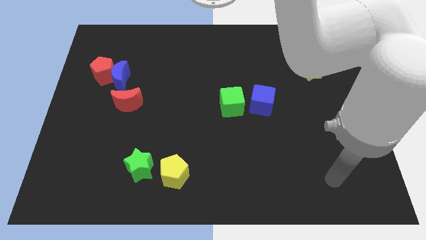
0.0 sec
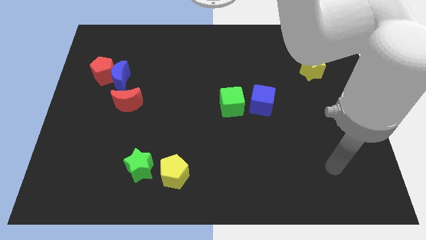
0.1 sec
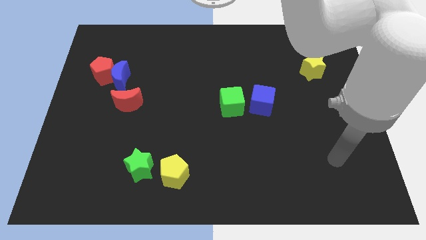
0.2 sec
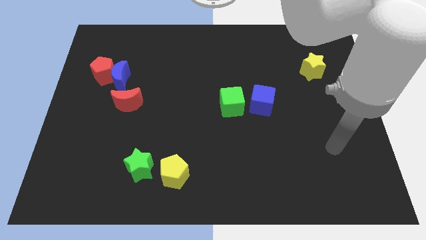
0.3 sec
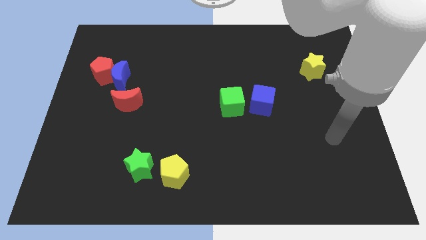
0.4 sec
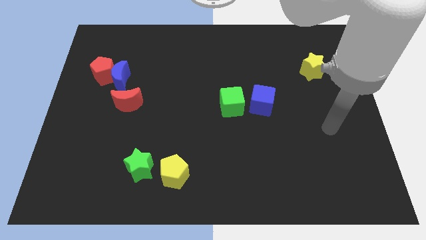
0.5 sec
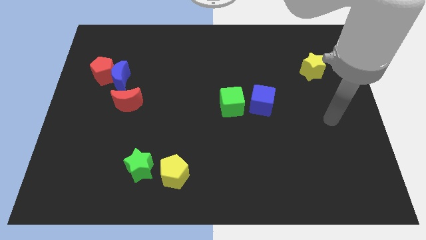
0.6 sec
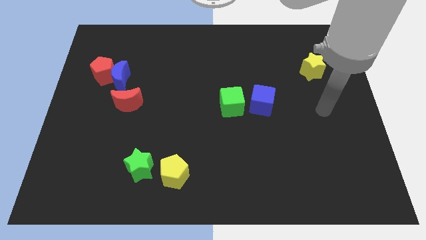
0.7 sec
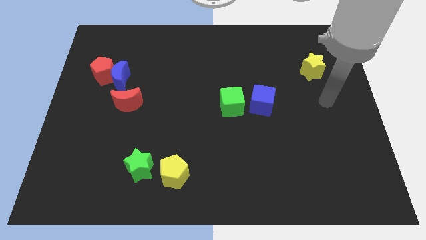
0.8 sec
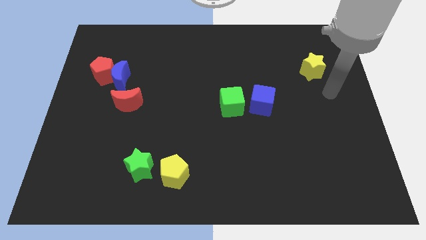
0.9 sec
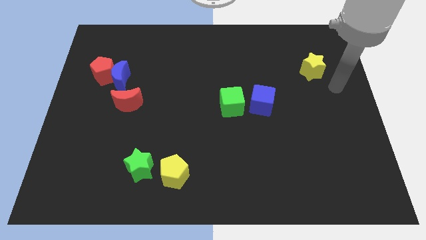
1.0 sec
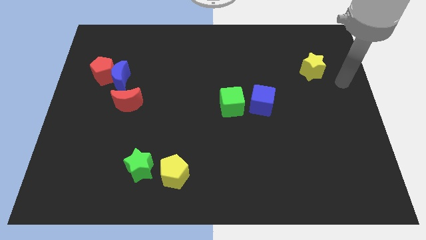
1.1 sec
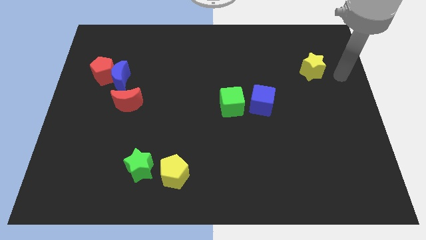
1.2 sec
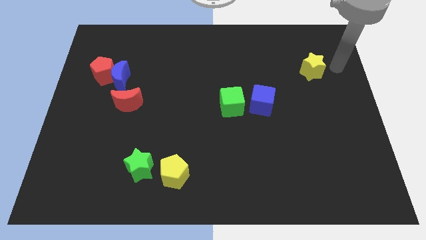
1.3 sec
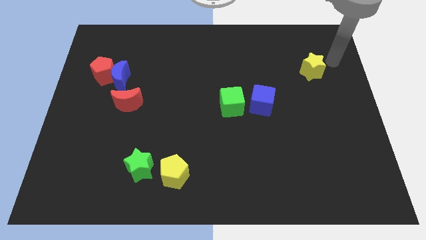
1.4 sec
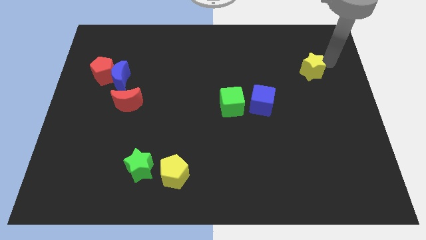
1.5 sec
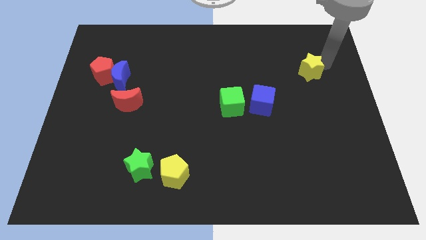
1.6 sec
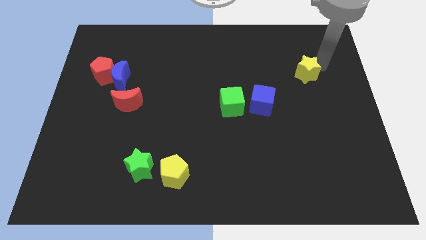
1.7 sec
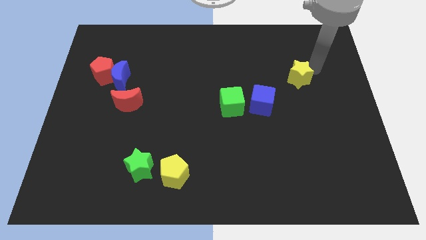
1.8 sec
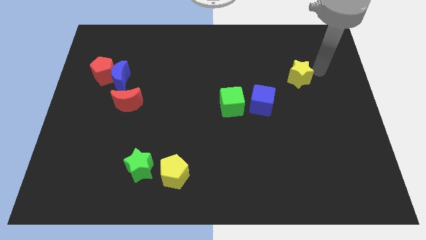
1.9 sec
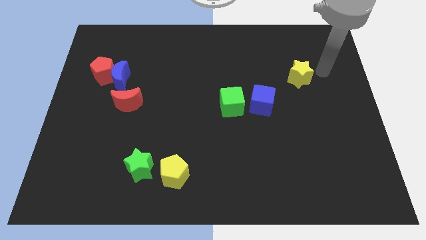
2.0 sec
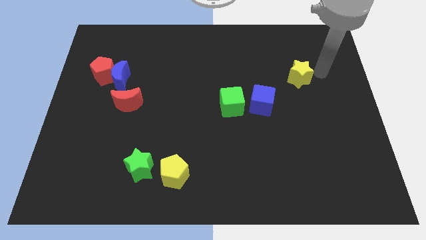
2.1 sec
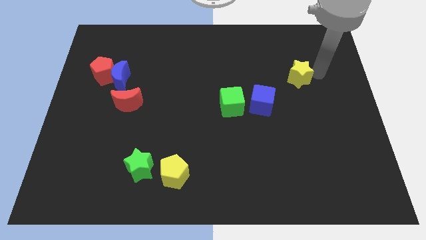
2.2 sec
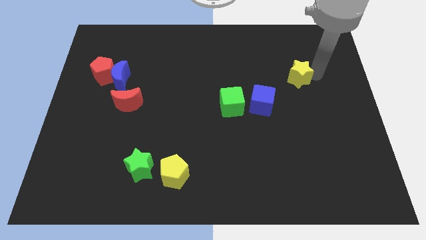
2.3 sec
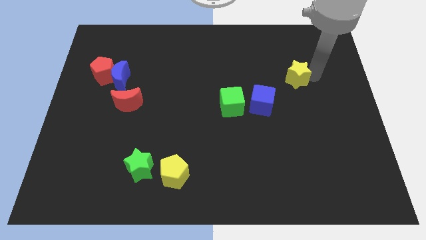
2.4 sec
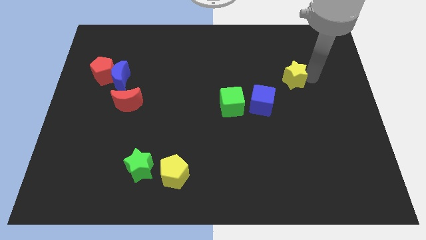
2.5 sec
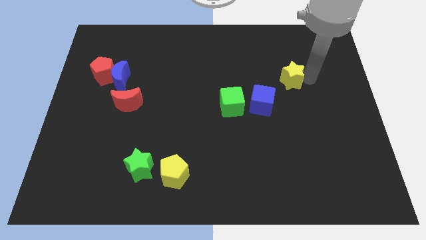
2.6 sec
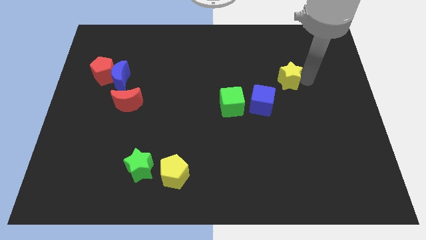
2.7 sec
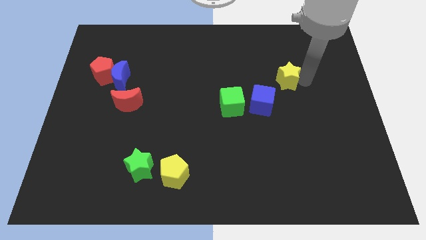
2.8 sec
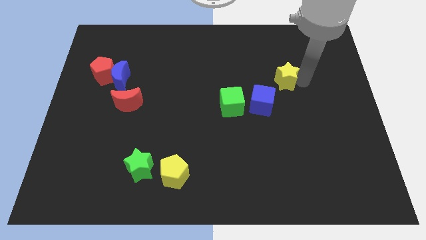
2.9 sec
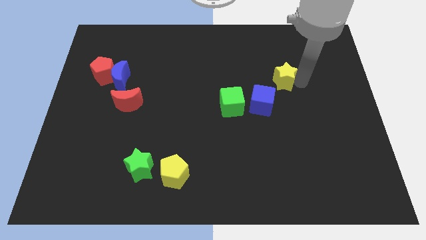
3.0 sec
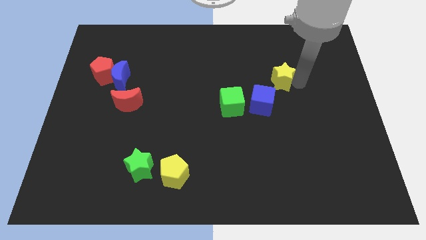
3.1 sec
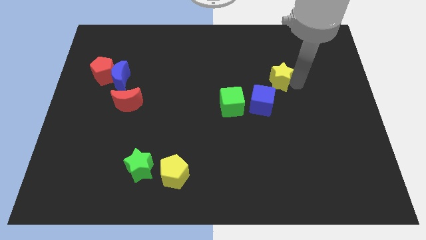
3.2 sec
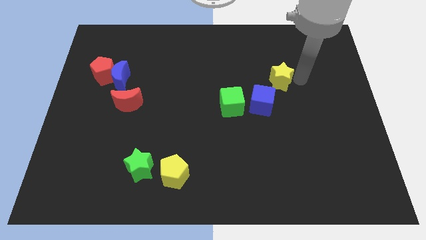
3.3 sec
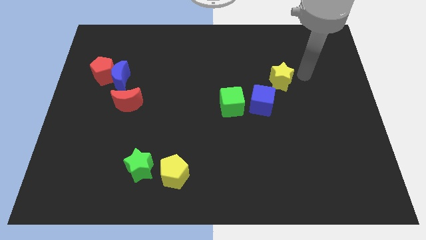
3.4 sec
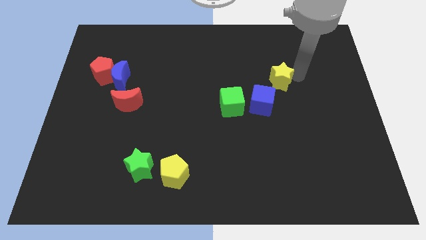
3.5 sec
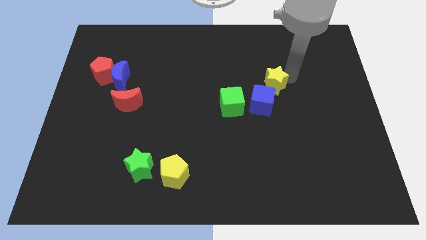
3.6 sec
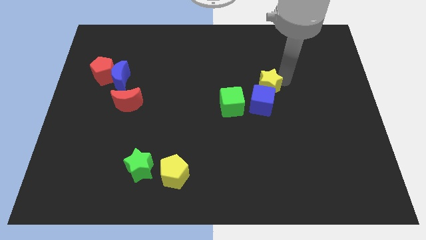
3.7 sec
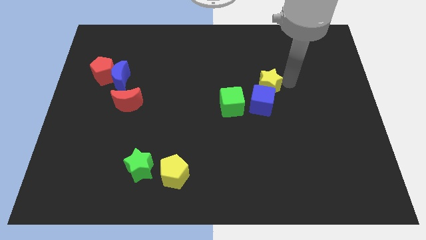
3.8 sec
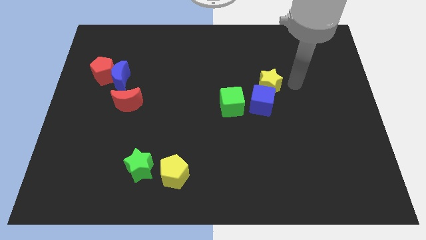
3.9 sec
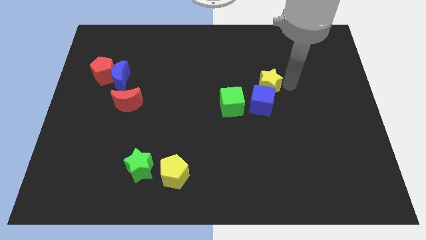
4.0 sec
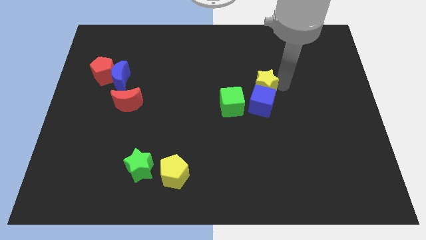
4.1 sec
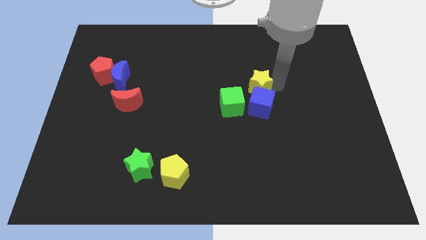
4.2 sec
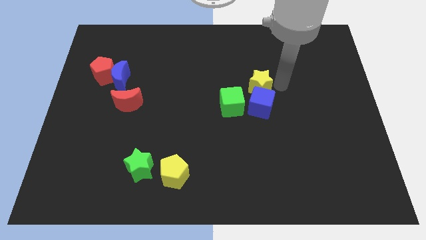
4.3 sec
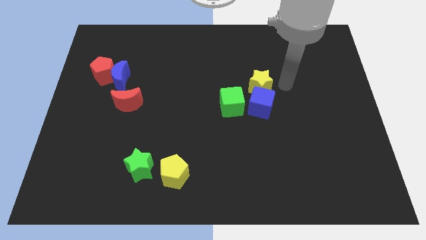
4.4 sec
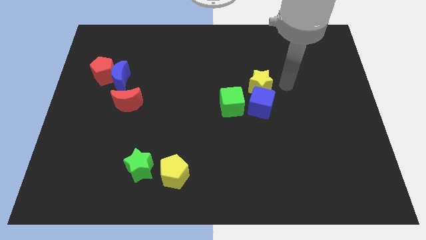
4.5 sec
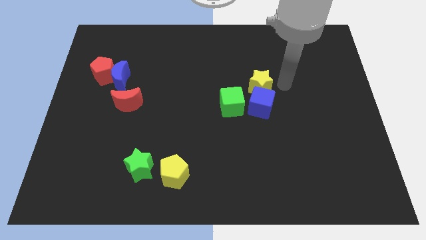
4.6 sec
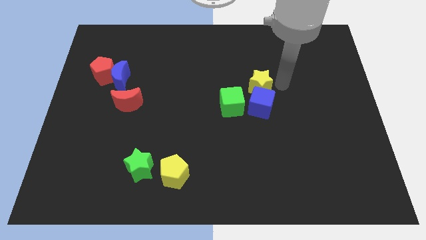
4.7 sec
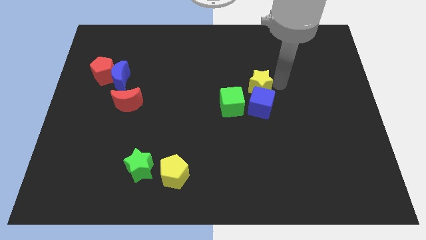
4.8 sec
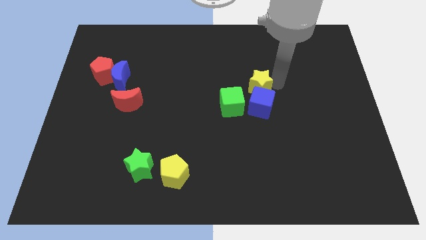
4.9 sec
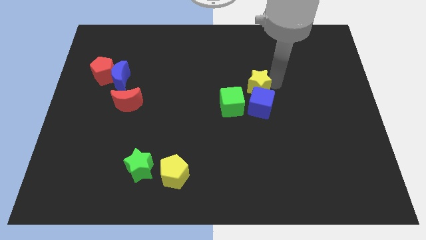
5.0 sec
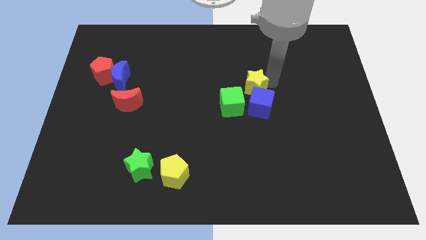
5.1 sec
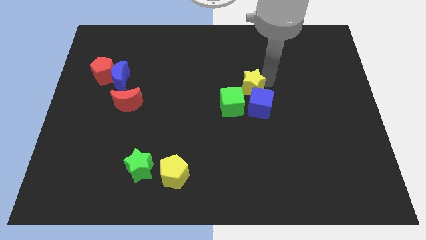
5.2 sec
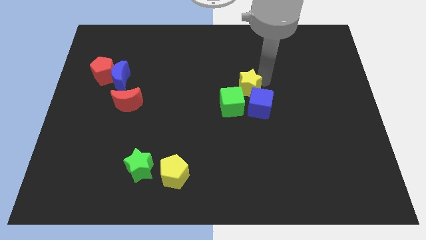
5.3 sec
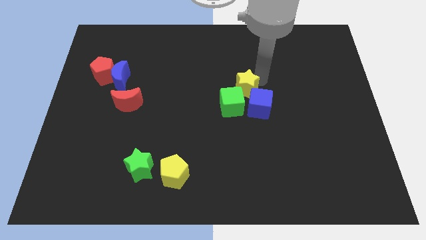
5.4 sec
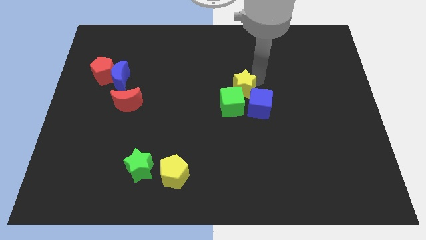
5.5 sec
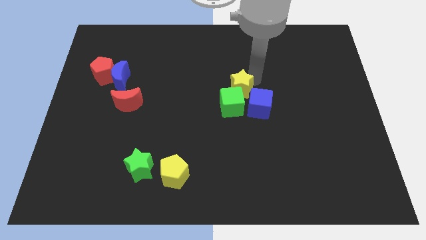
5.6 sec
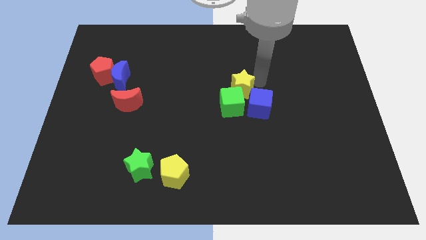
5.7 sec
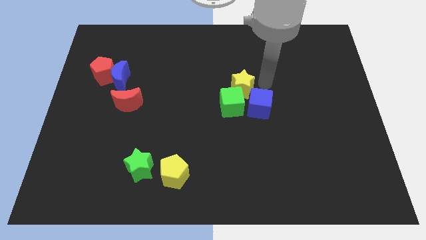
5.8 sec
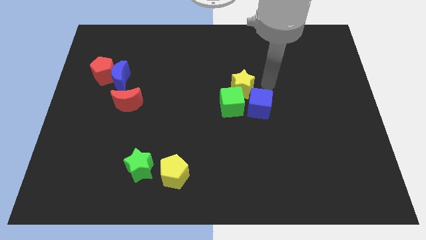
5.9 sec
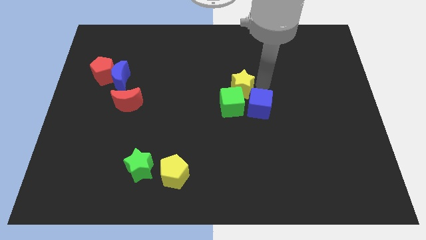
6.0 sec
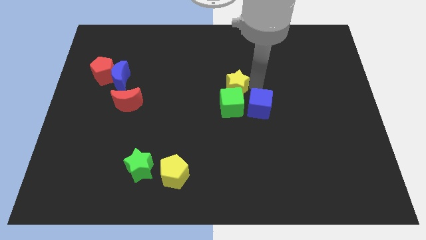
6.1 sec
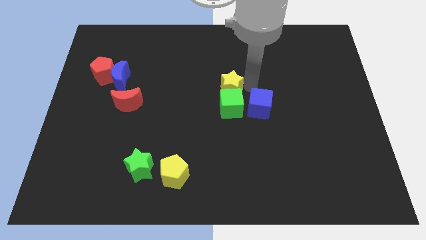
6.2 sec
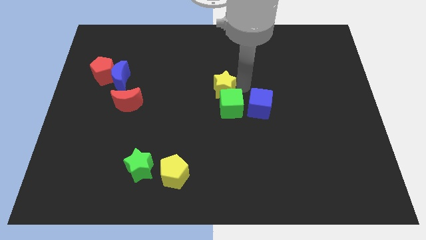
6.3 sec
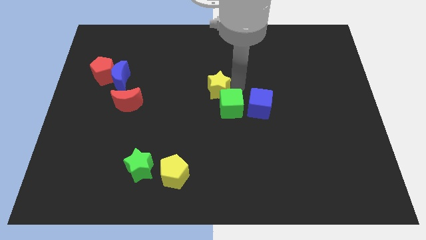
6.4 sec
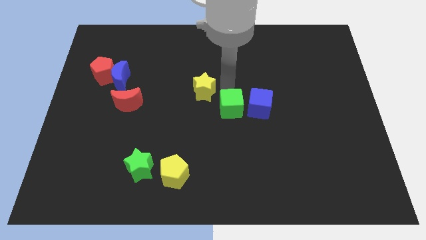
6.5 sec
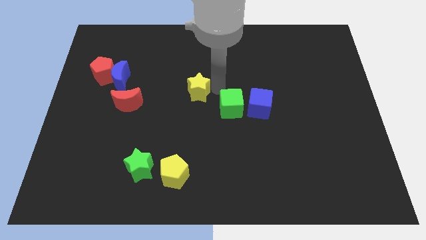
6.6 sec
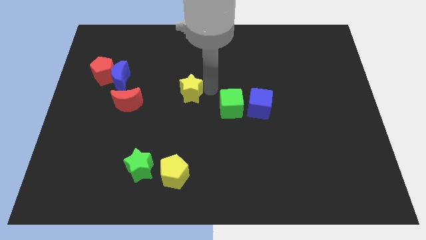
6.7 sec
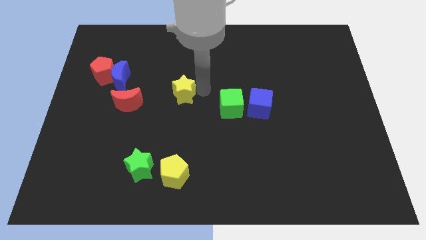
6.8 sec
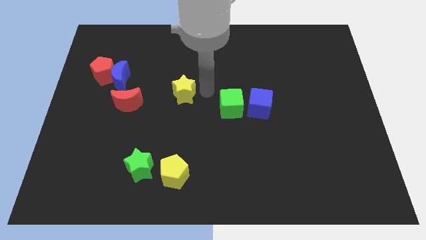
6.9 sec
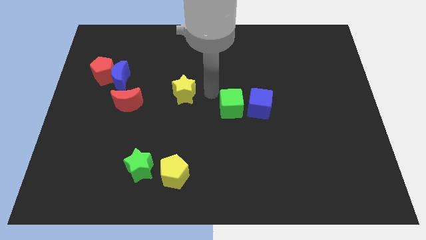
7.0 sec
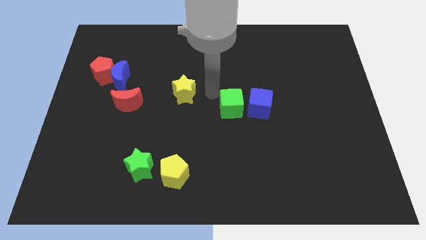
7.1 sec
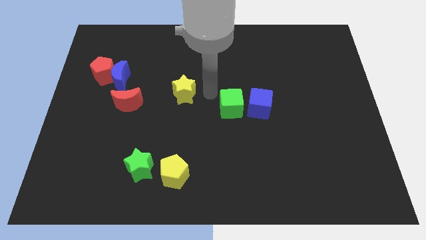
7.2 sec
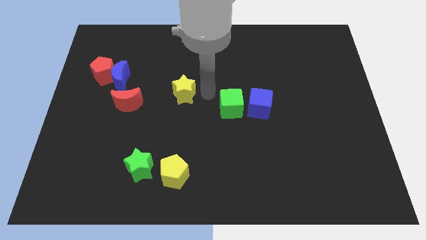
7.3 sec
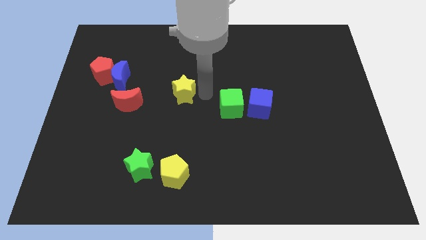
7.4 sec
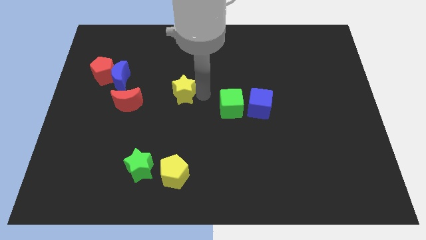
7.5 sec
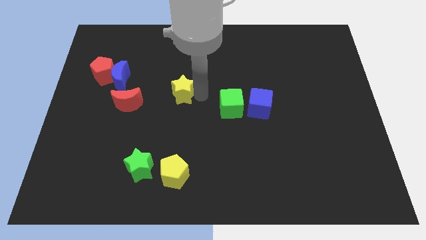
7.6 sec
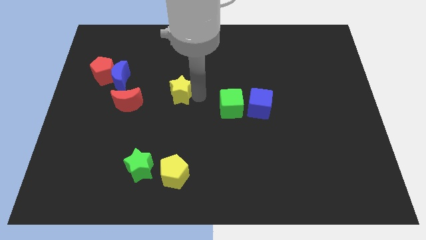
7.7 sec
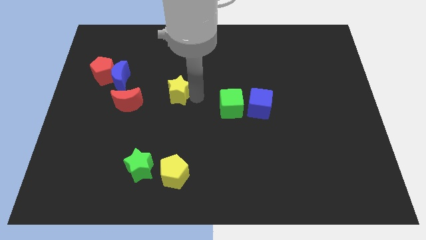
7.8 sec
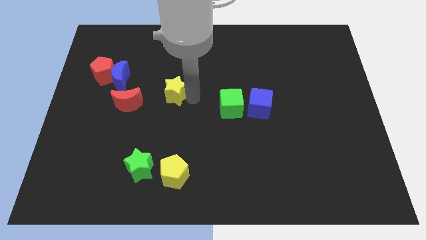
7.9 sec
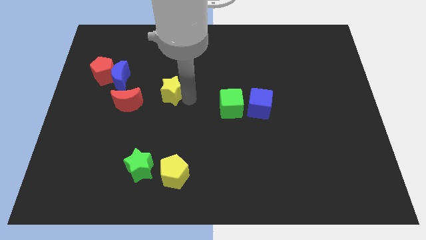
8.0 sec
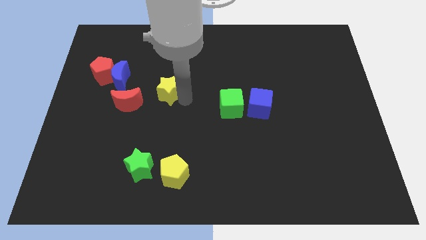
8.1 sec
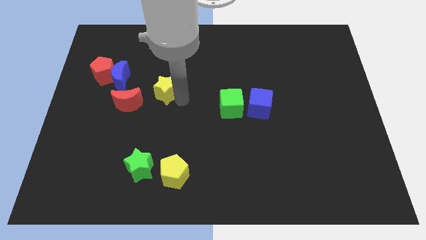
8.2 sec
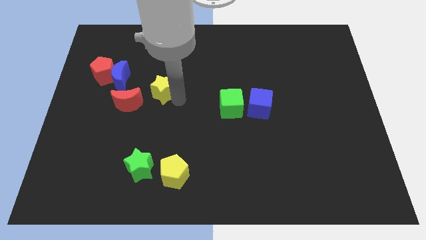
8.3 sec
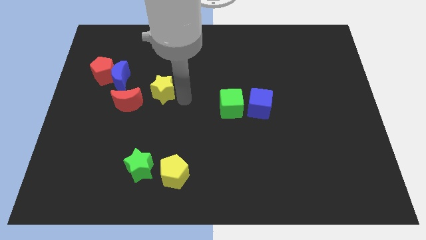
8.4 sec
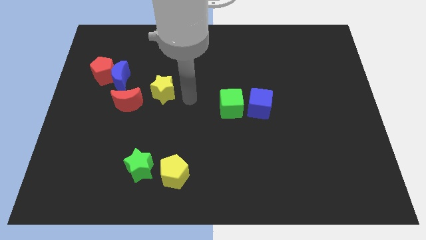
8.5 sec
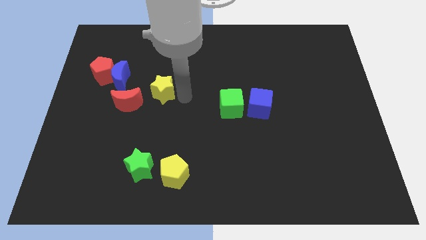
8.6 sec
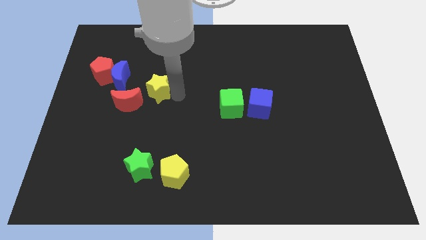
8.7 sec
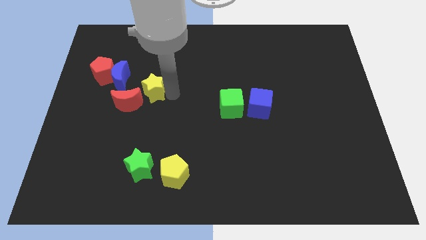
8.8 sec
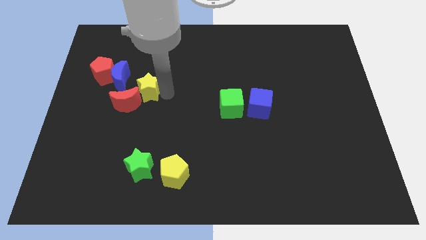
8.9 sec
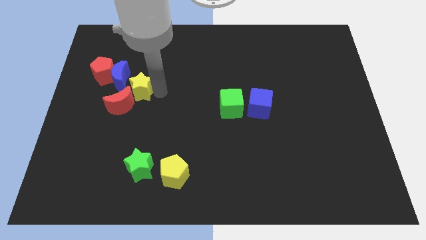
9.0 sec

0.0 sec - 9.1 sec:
push the yellow star diagonally down and to the right of the red pentagon
